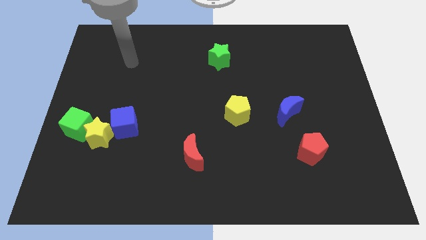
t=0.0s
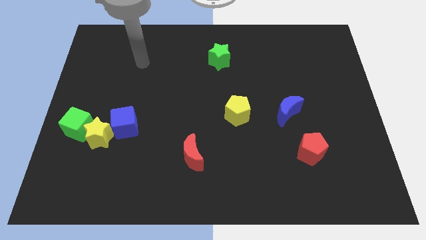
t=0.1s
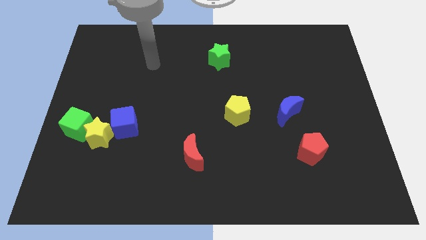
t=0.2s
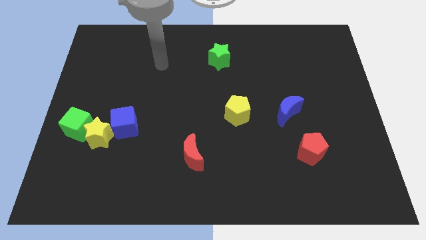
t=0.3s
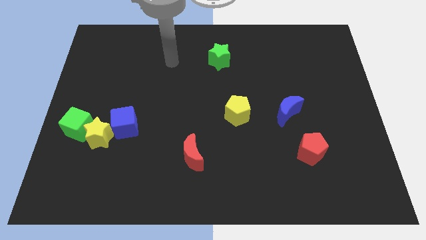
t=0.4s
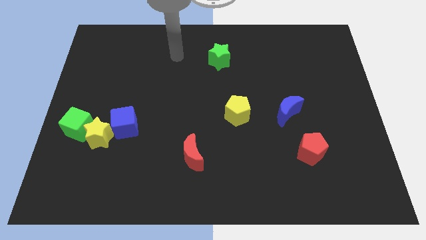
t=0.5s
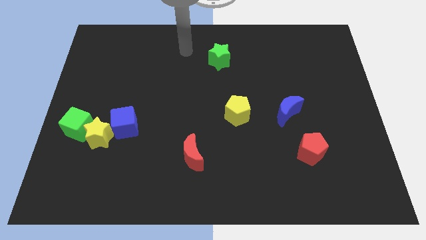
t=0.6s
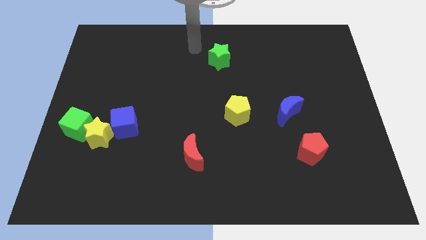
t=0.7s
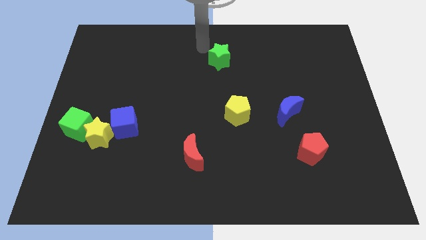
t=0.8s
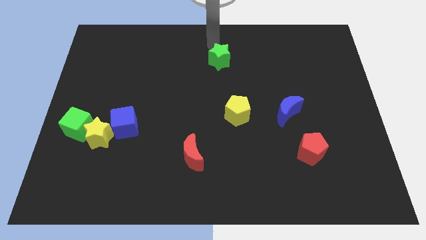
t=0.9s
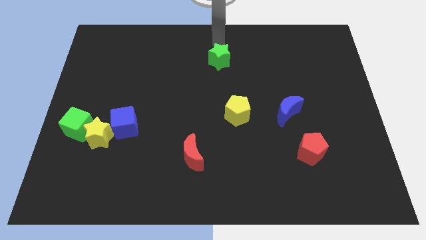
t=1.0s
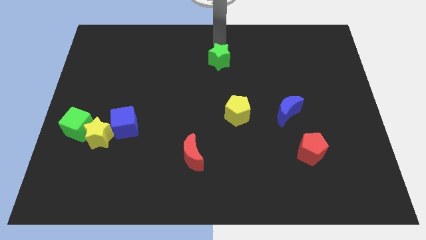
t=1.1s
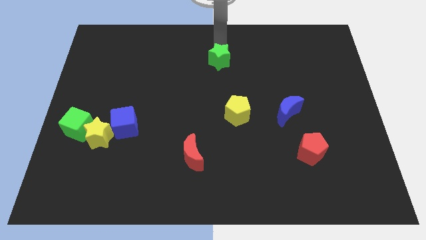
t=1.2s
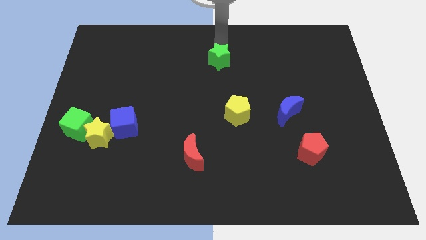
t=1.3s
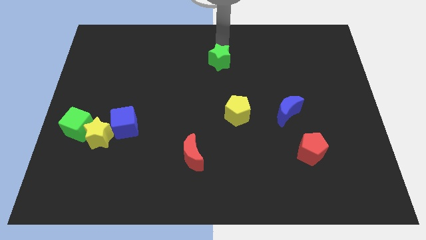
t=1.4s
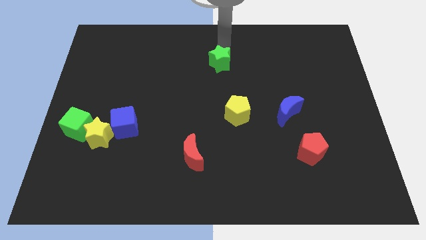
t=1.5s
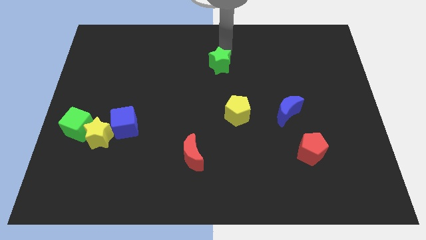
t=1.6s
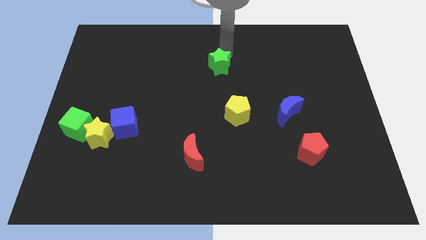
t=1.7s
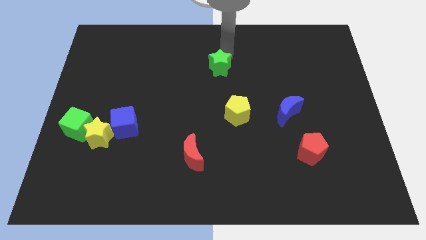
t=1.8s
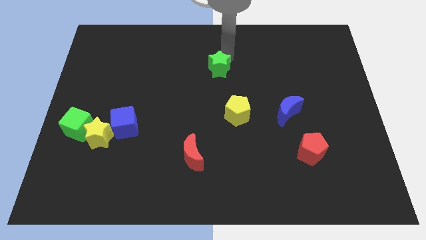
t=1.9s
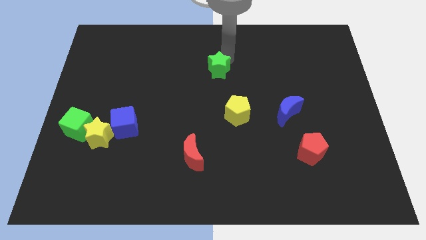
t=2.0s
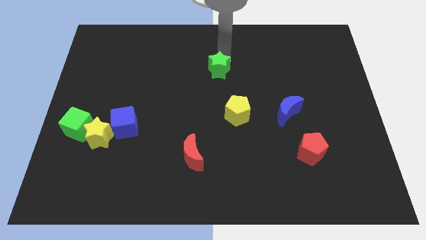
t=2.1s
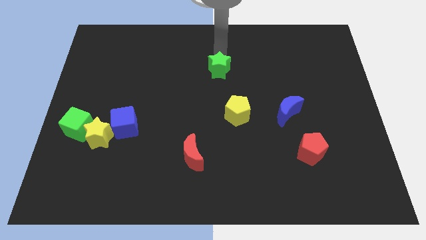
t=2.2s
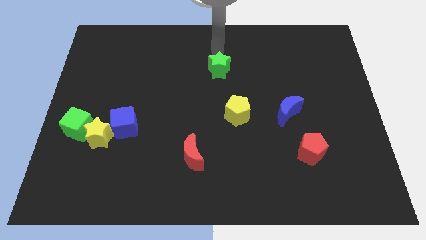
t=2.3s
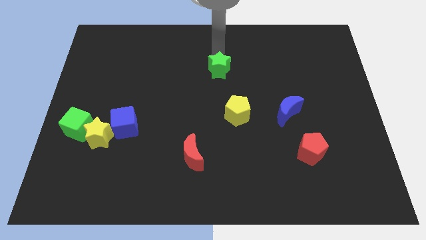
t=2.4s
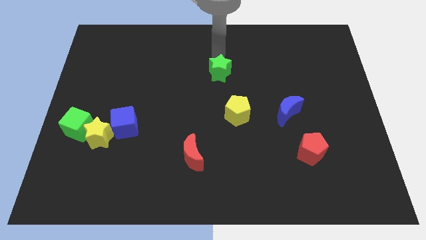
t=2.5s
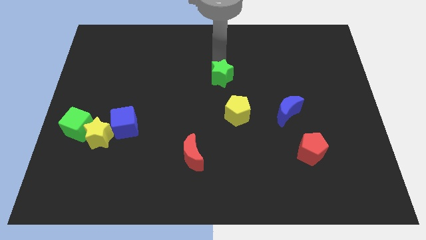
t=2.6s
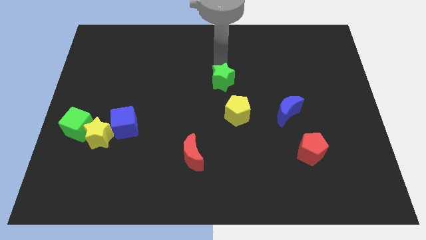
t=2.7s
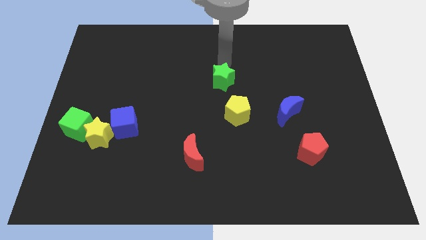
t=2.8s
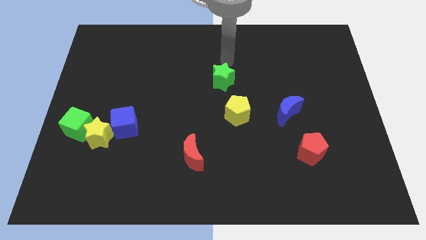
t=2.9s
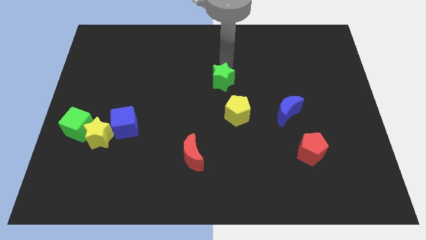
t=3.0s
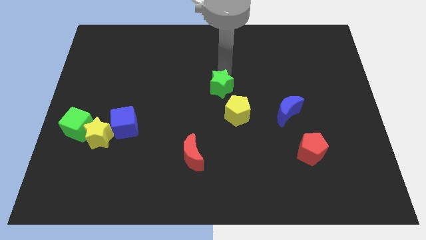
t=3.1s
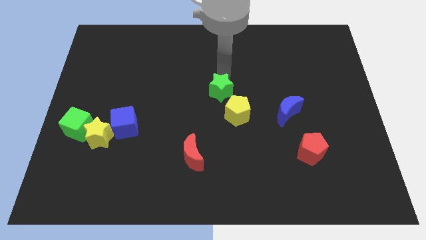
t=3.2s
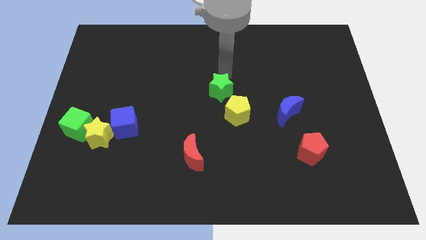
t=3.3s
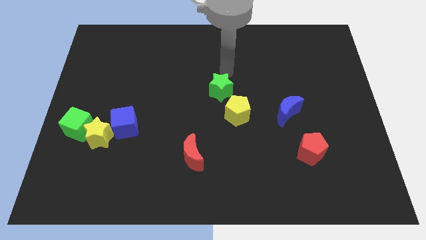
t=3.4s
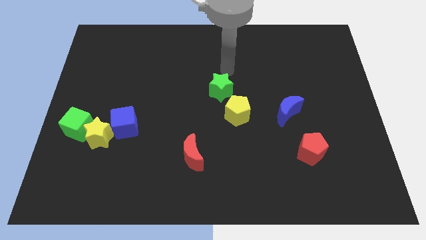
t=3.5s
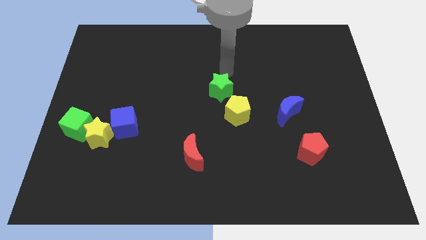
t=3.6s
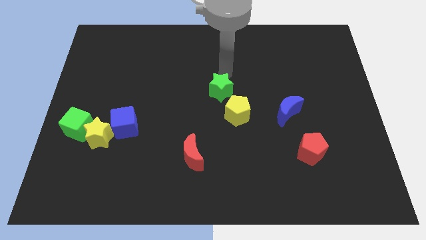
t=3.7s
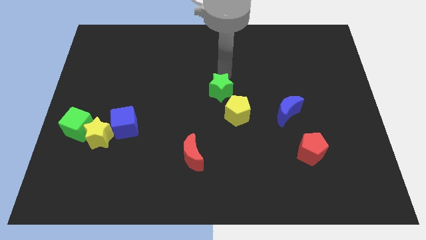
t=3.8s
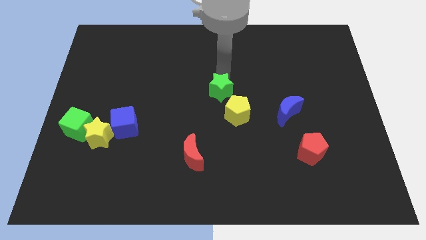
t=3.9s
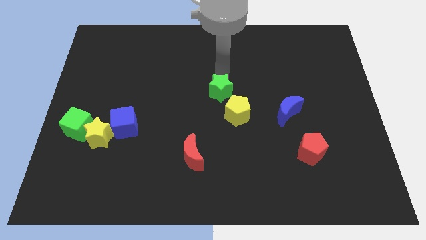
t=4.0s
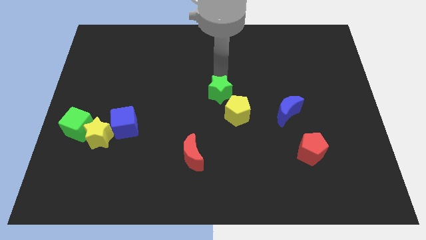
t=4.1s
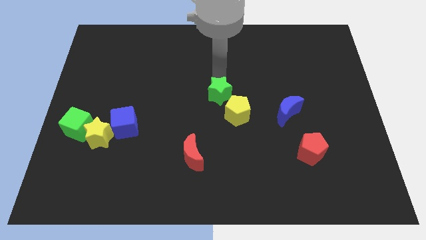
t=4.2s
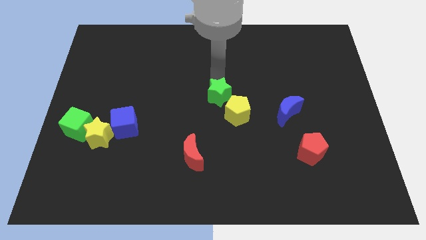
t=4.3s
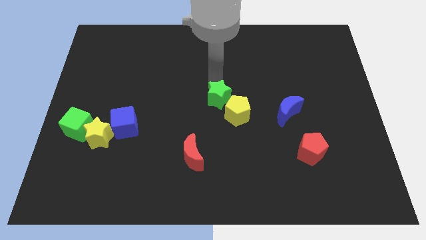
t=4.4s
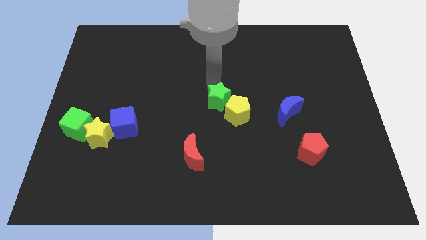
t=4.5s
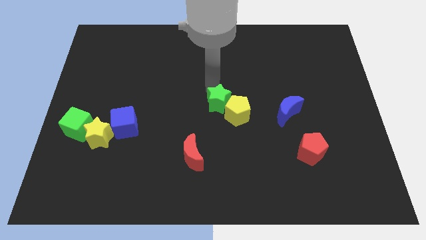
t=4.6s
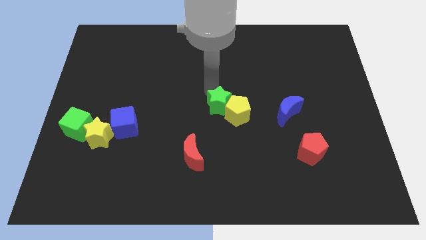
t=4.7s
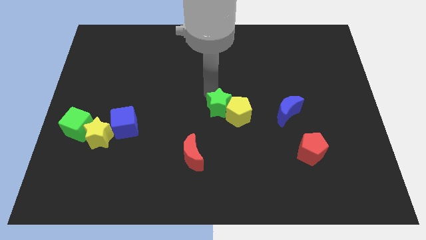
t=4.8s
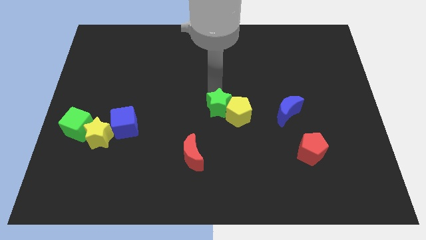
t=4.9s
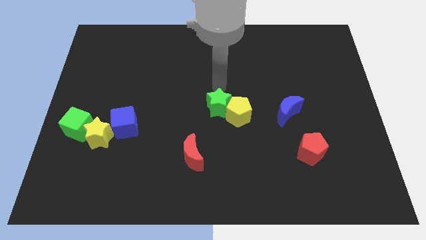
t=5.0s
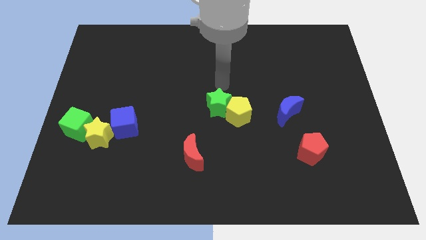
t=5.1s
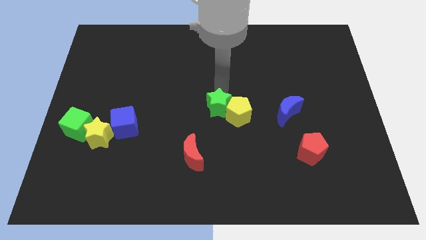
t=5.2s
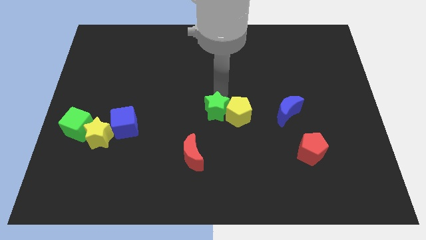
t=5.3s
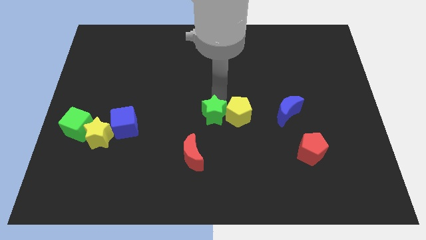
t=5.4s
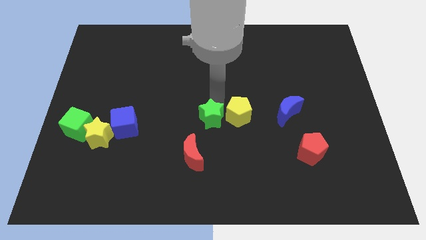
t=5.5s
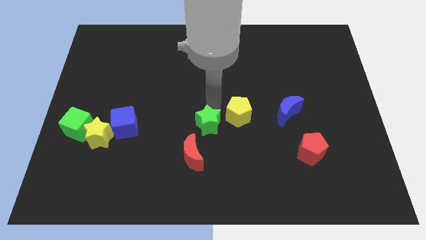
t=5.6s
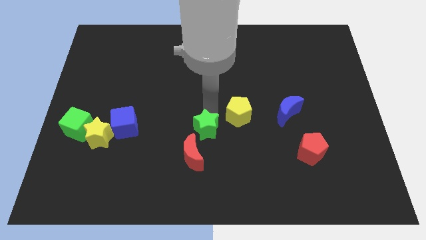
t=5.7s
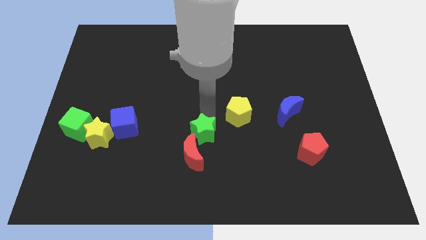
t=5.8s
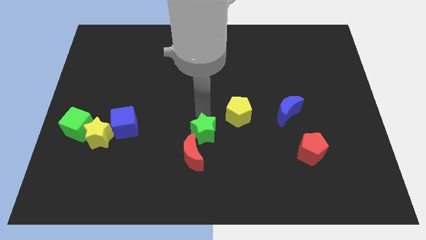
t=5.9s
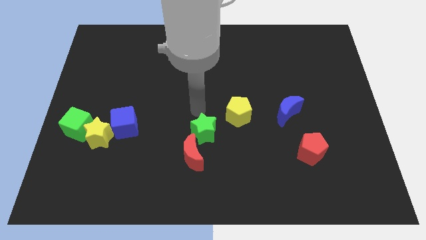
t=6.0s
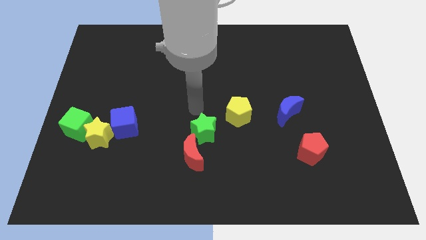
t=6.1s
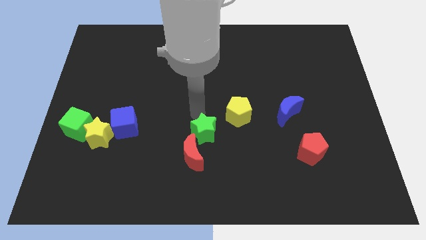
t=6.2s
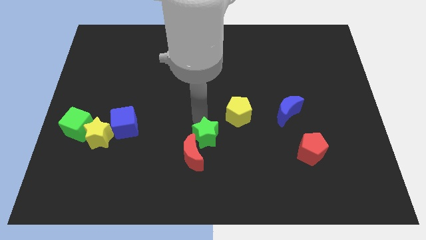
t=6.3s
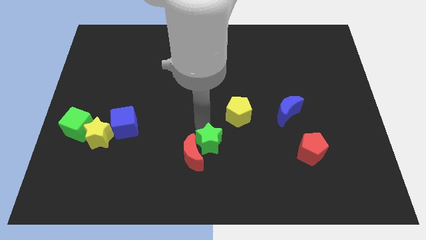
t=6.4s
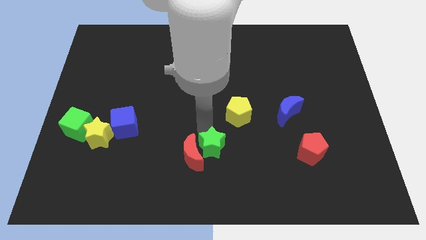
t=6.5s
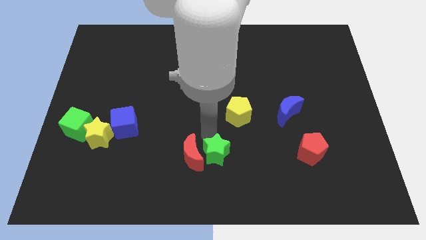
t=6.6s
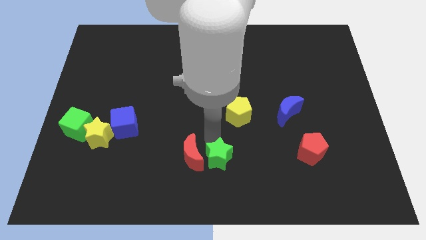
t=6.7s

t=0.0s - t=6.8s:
move the green star to the bottom
